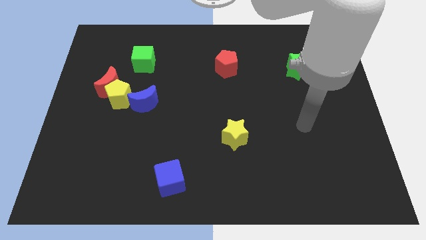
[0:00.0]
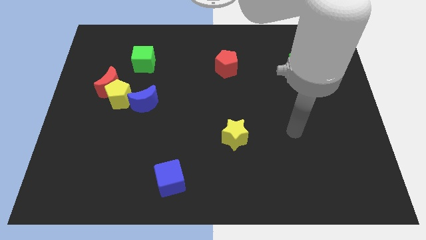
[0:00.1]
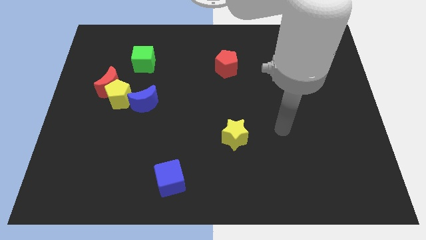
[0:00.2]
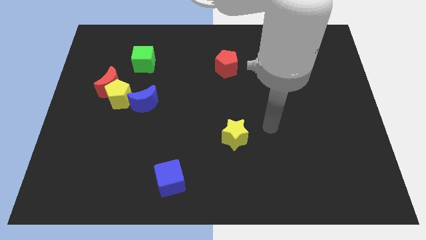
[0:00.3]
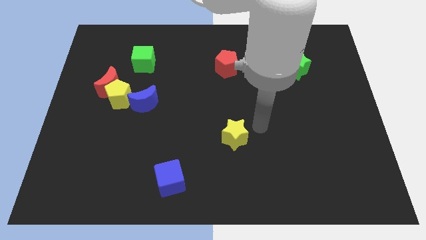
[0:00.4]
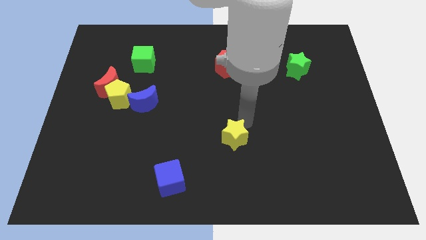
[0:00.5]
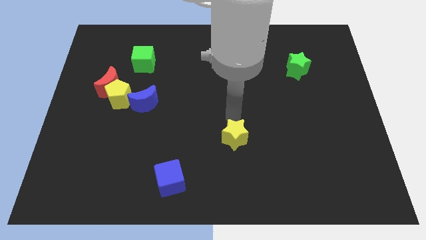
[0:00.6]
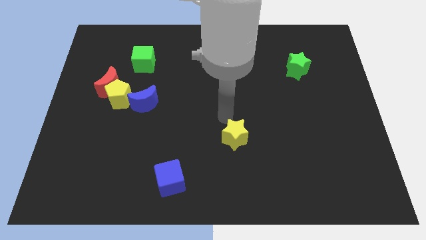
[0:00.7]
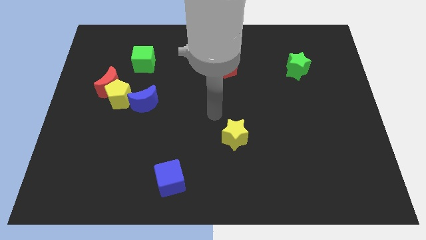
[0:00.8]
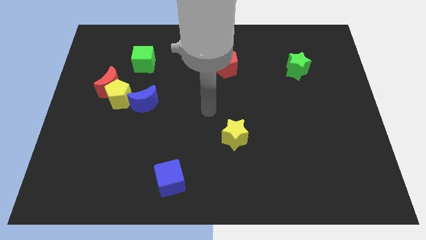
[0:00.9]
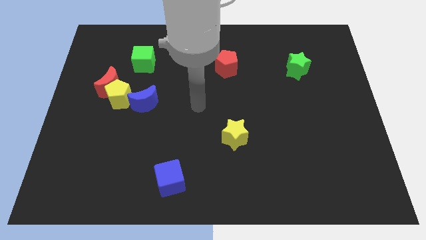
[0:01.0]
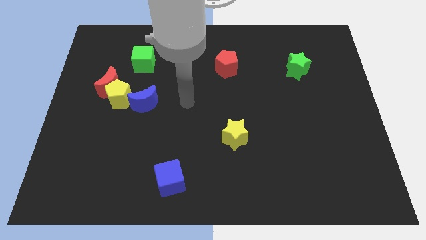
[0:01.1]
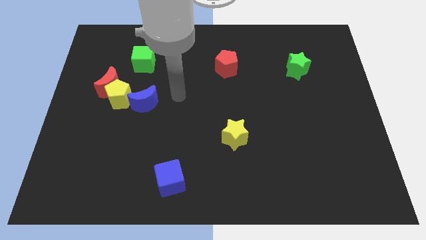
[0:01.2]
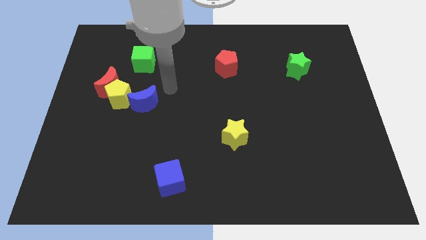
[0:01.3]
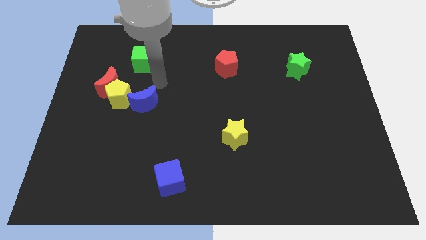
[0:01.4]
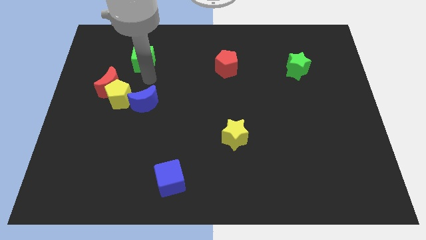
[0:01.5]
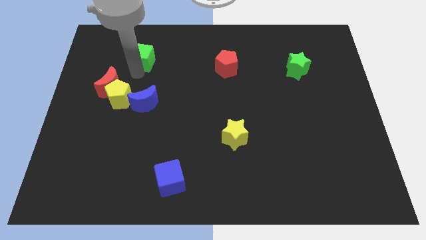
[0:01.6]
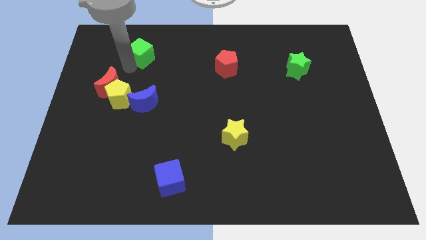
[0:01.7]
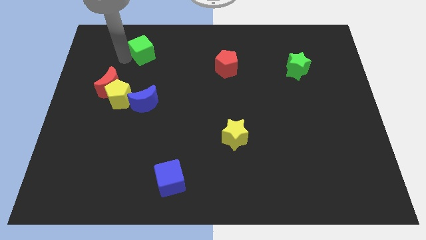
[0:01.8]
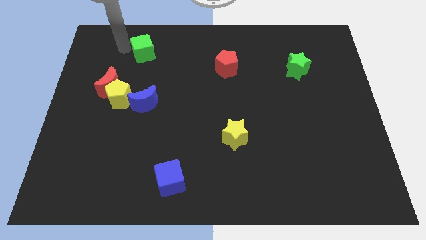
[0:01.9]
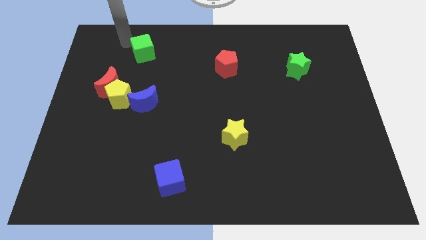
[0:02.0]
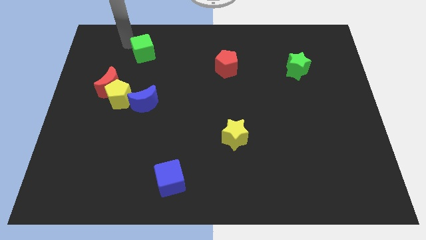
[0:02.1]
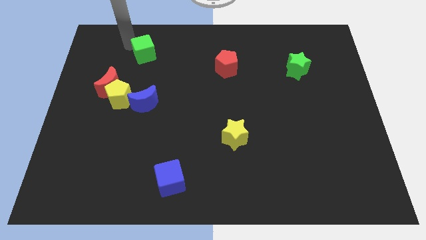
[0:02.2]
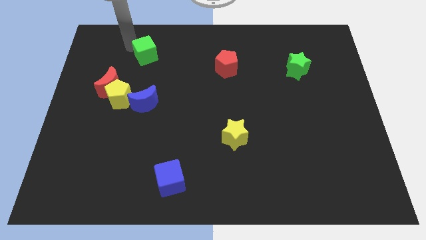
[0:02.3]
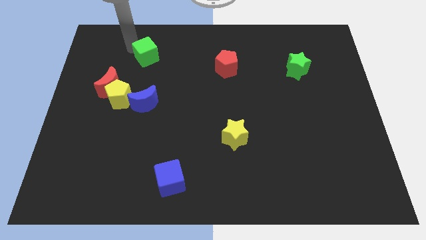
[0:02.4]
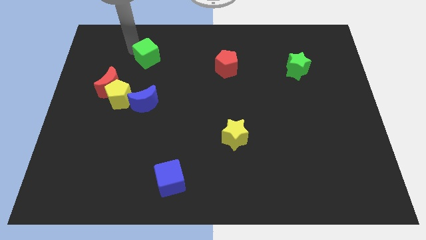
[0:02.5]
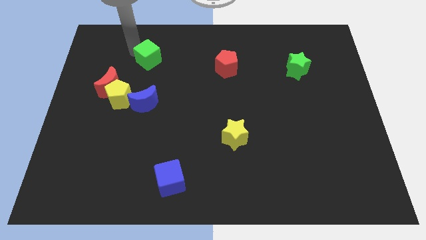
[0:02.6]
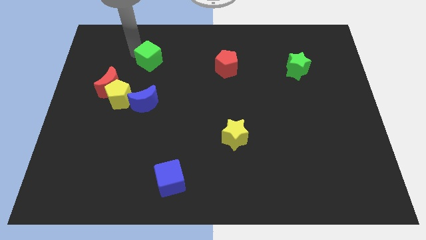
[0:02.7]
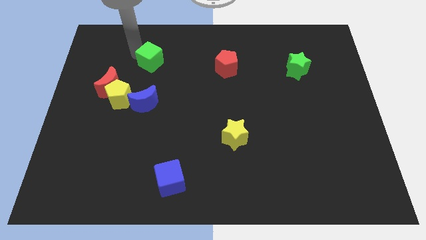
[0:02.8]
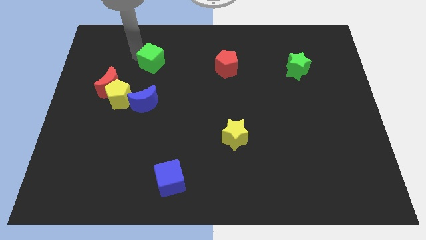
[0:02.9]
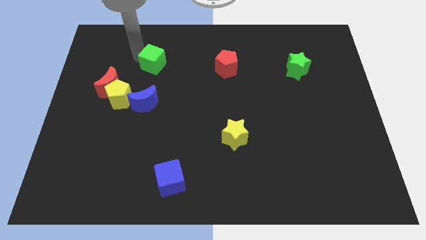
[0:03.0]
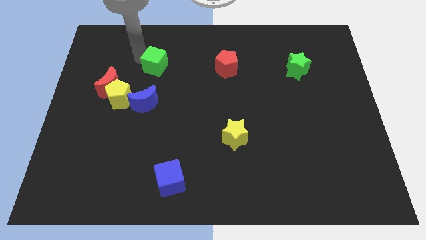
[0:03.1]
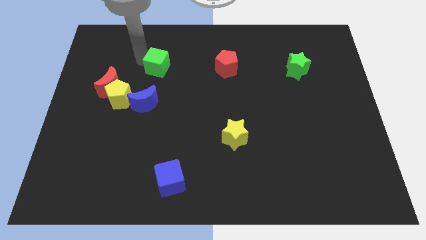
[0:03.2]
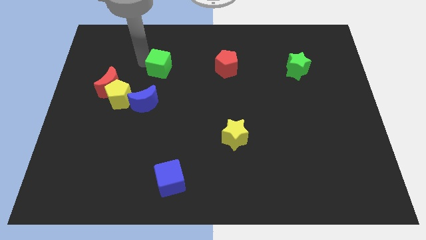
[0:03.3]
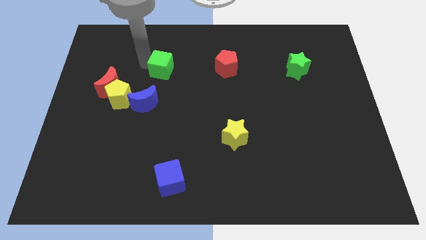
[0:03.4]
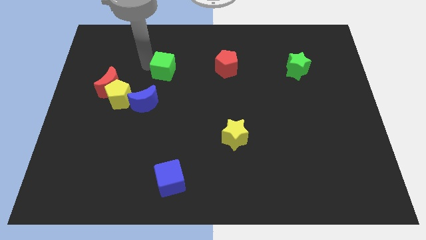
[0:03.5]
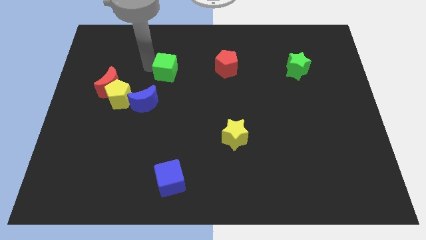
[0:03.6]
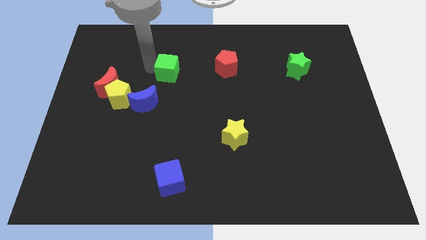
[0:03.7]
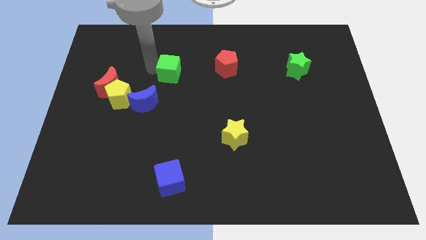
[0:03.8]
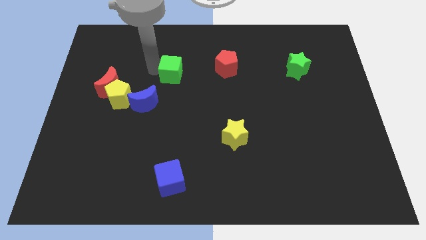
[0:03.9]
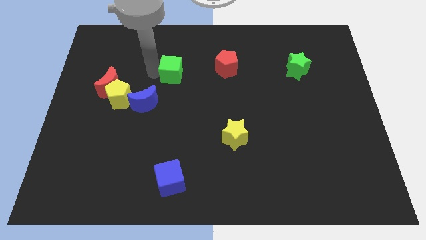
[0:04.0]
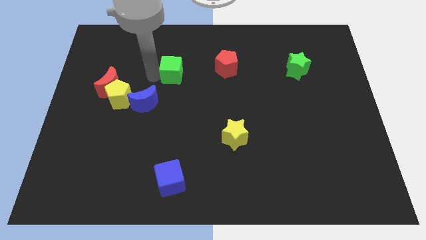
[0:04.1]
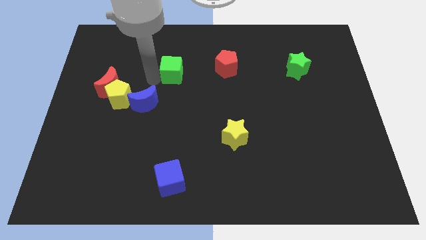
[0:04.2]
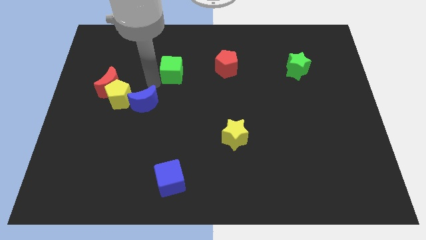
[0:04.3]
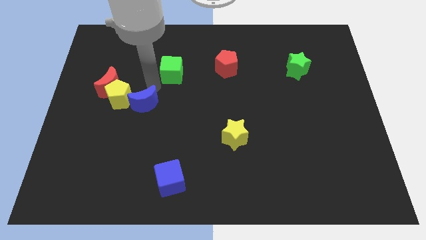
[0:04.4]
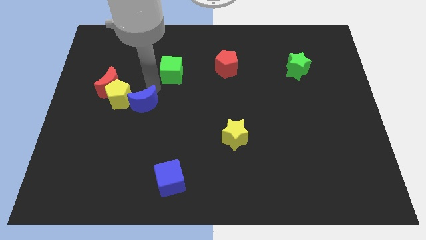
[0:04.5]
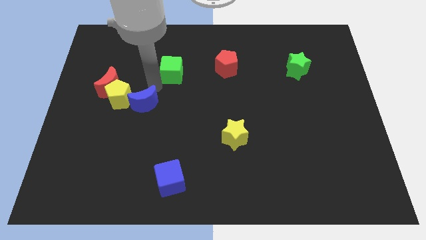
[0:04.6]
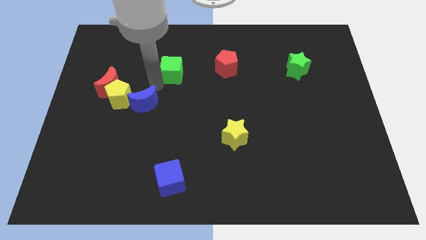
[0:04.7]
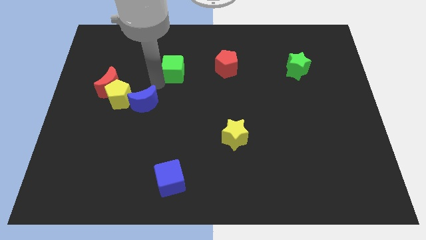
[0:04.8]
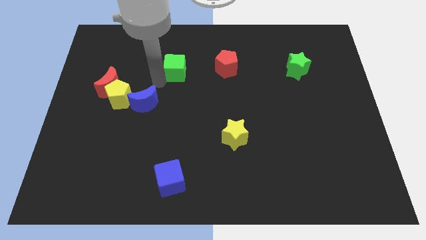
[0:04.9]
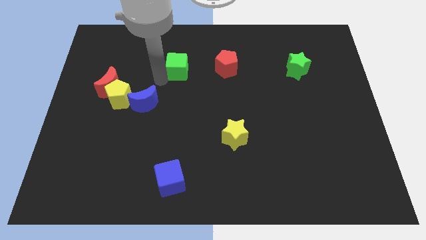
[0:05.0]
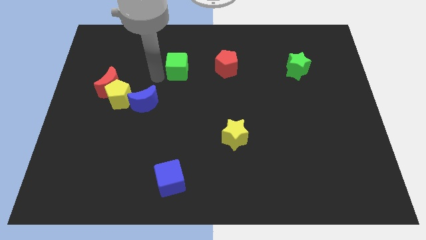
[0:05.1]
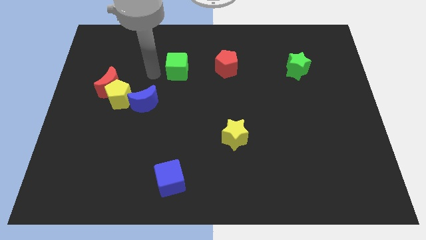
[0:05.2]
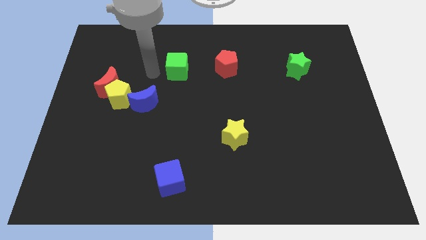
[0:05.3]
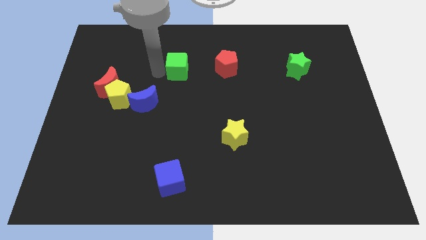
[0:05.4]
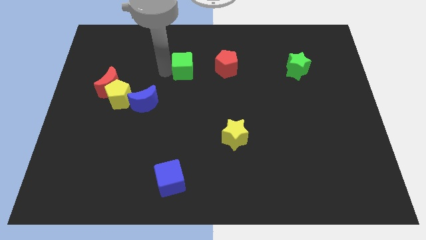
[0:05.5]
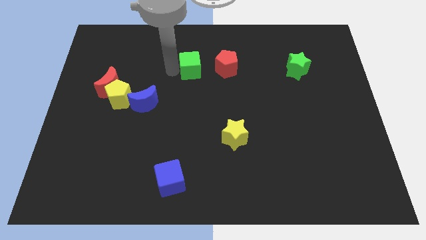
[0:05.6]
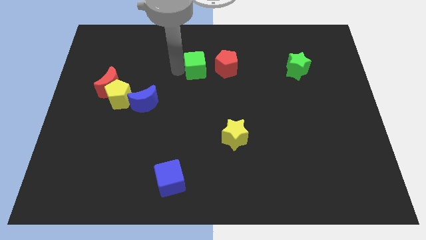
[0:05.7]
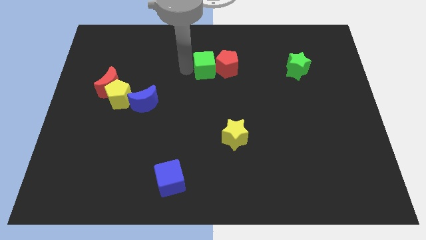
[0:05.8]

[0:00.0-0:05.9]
push the green cube close to the red pentagon

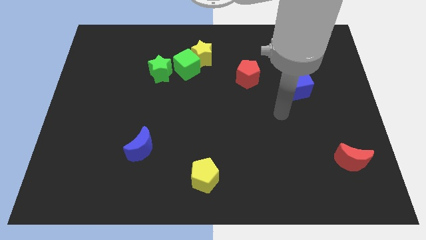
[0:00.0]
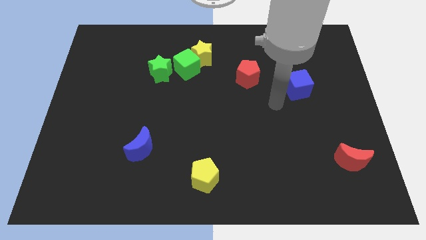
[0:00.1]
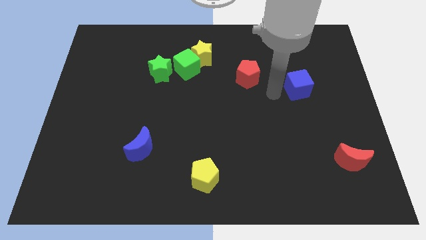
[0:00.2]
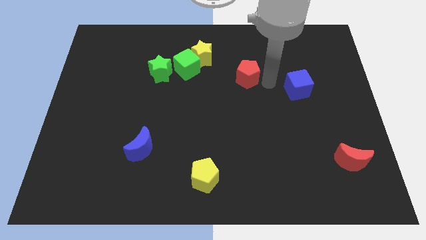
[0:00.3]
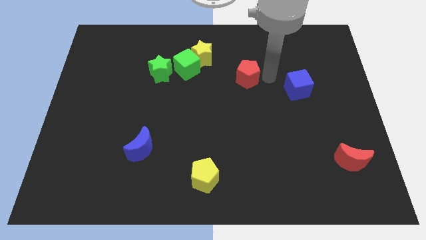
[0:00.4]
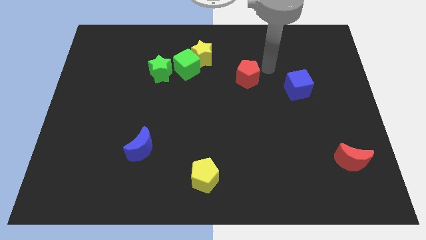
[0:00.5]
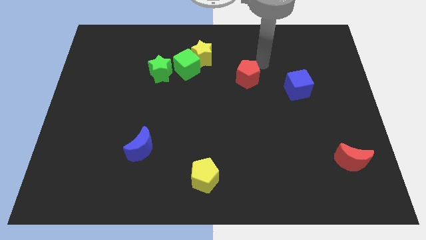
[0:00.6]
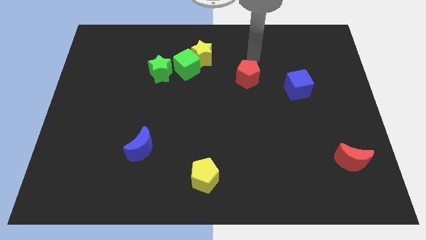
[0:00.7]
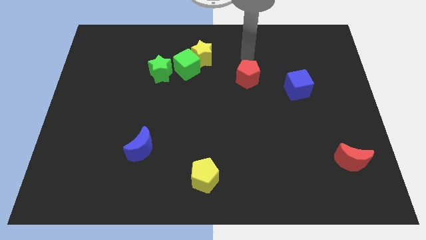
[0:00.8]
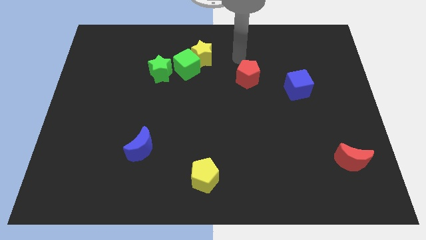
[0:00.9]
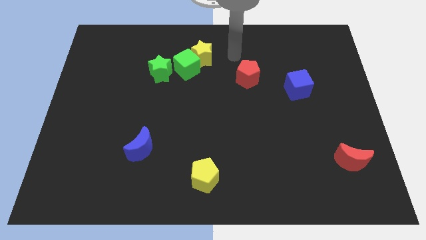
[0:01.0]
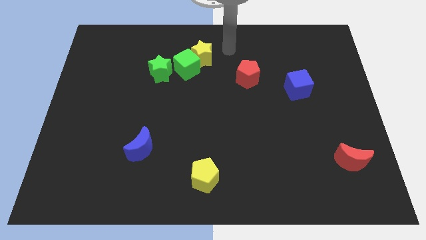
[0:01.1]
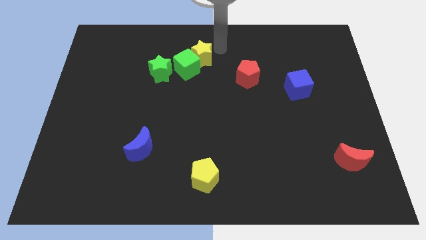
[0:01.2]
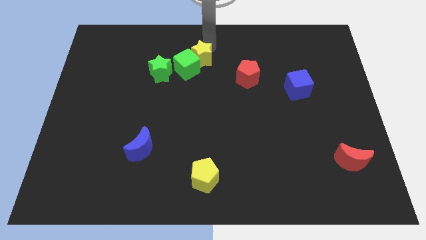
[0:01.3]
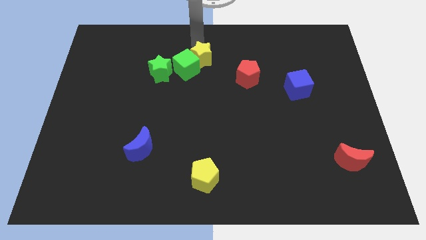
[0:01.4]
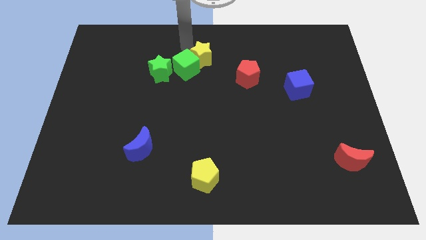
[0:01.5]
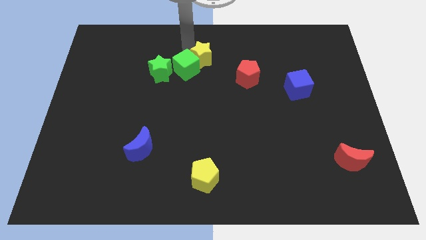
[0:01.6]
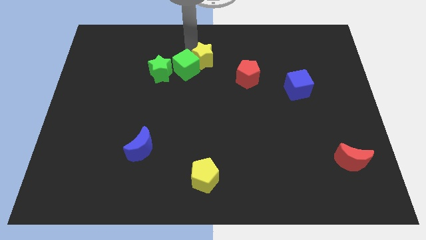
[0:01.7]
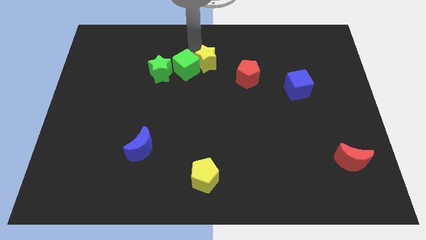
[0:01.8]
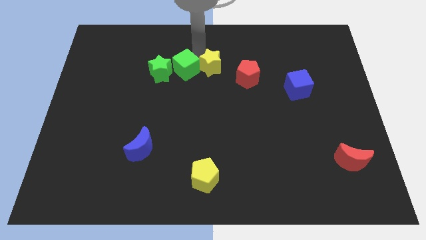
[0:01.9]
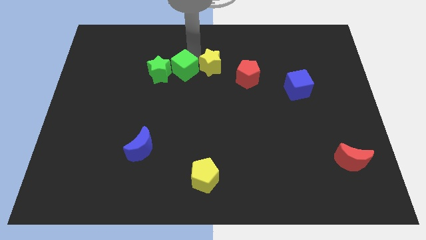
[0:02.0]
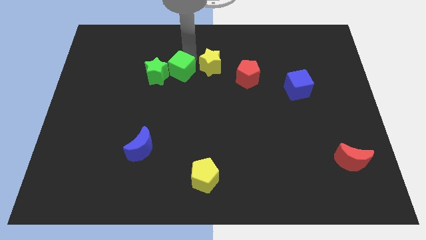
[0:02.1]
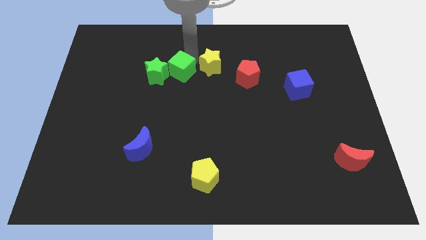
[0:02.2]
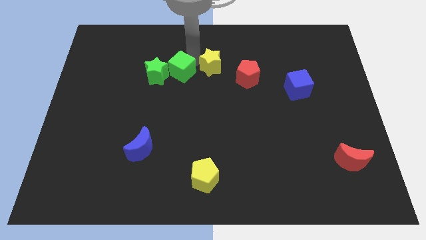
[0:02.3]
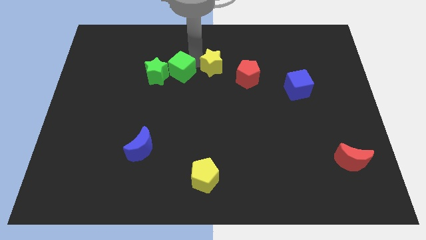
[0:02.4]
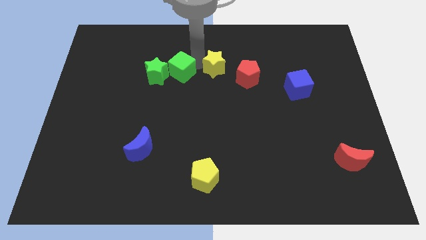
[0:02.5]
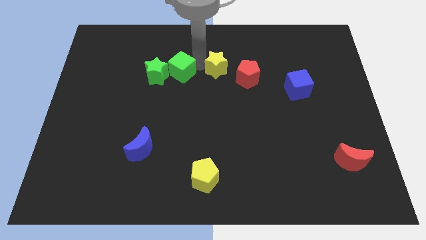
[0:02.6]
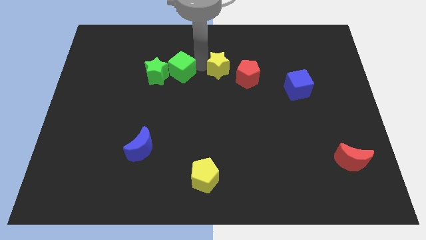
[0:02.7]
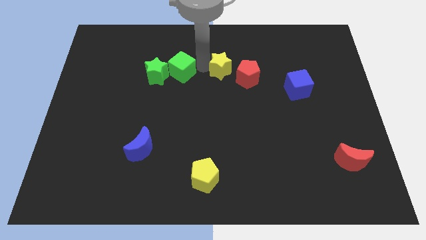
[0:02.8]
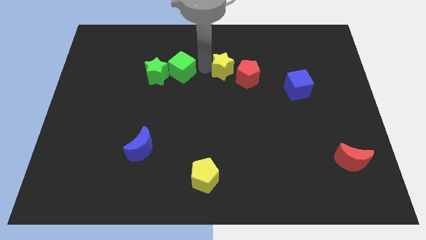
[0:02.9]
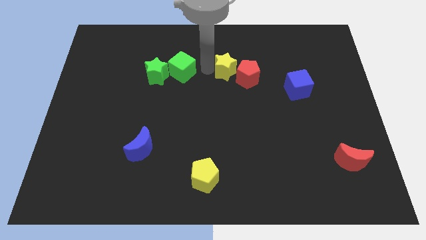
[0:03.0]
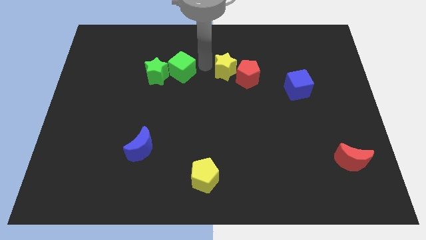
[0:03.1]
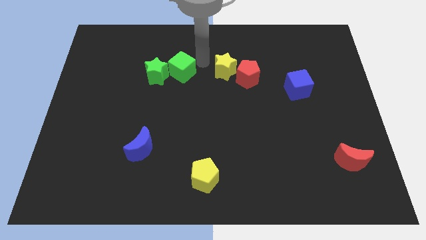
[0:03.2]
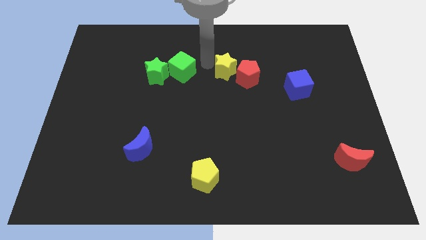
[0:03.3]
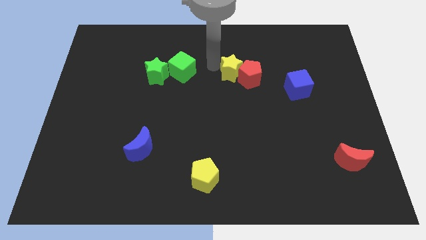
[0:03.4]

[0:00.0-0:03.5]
push the yellow star close to the red pentagon
